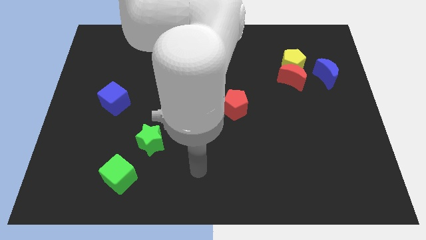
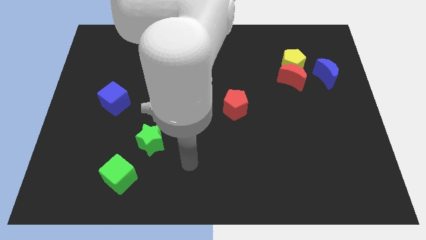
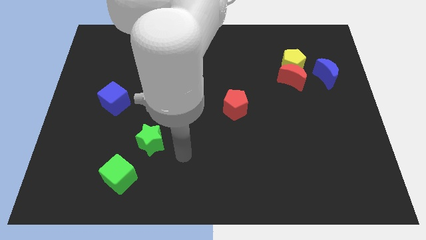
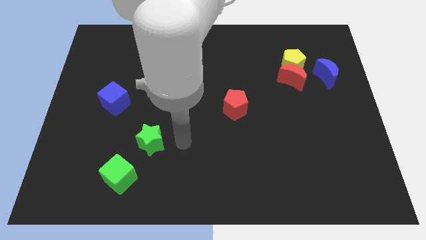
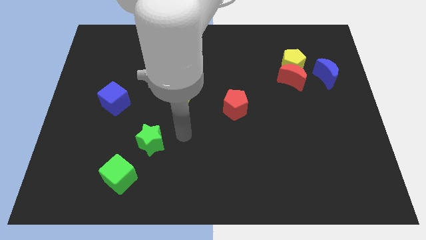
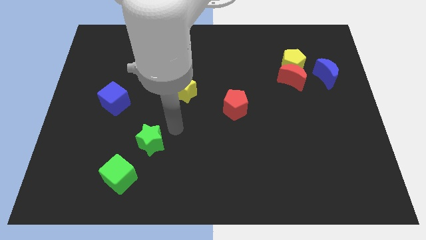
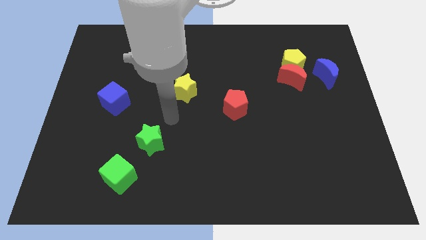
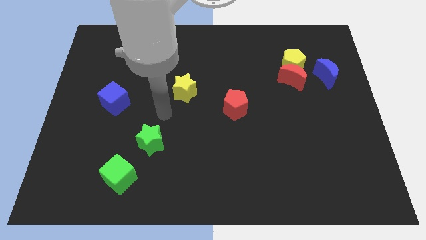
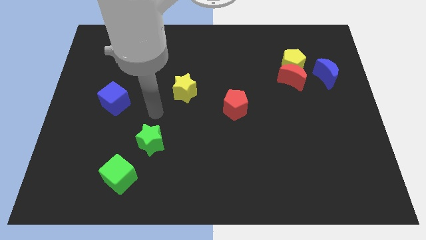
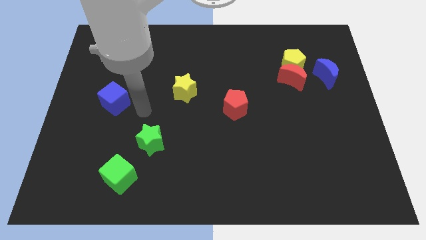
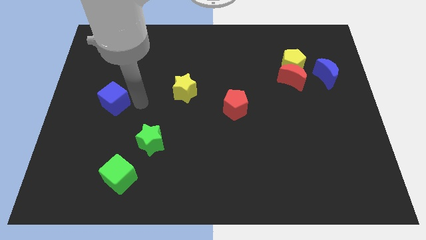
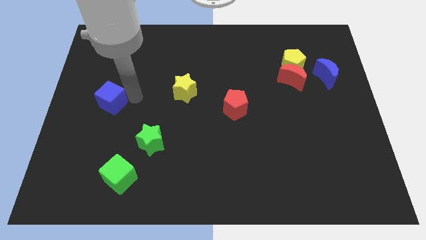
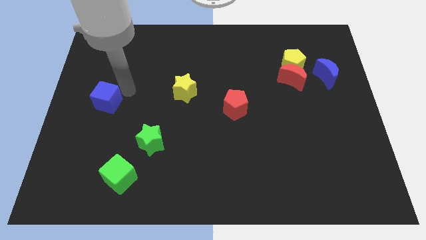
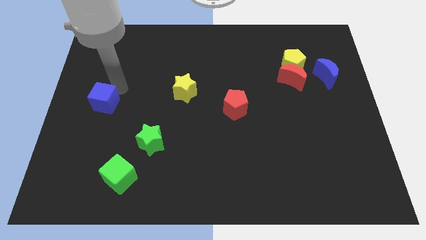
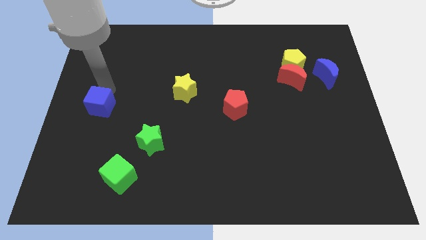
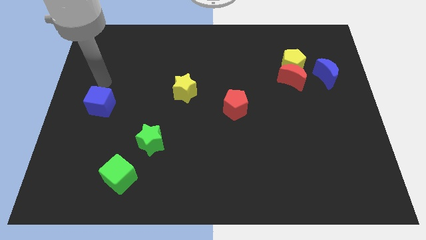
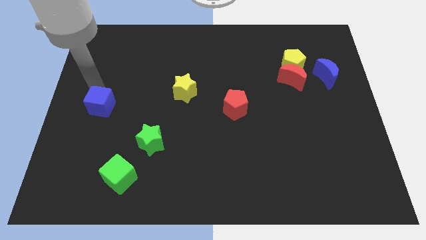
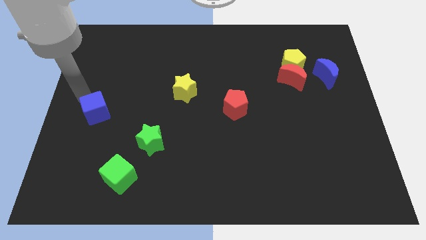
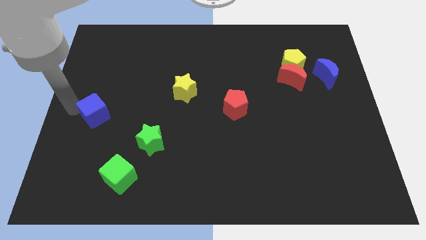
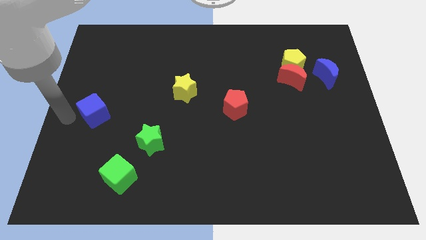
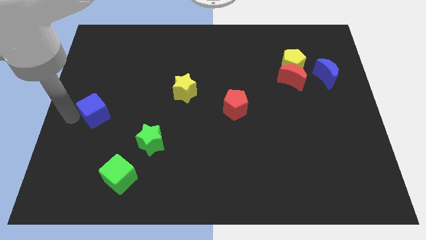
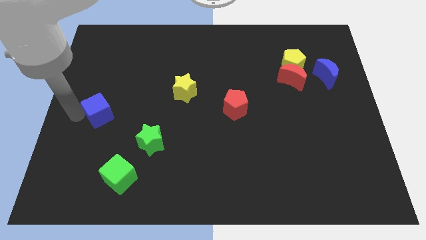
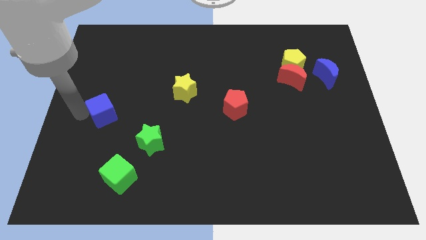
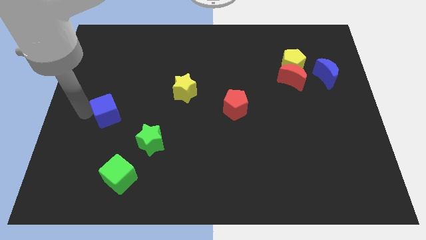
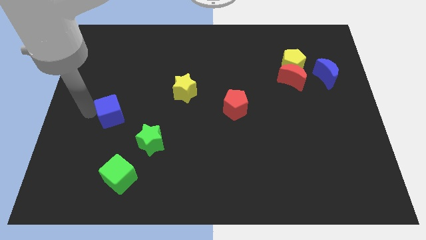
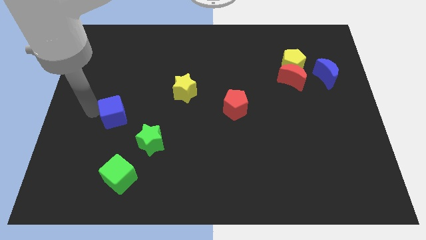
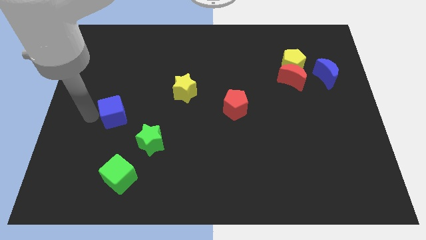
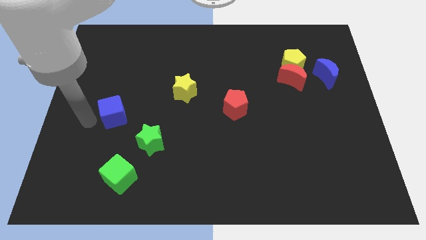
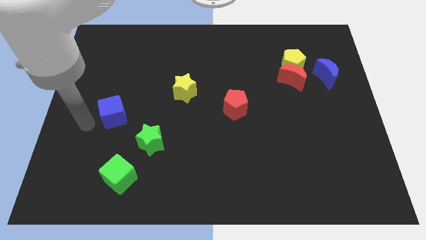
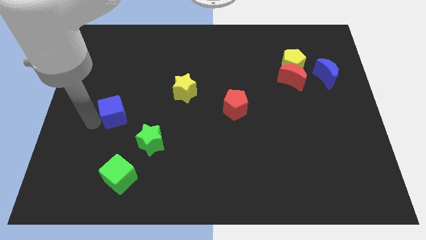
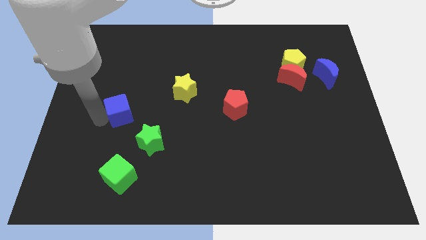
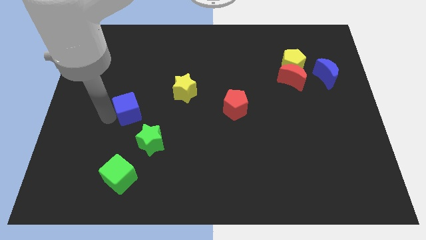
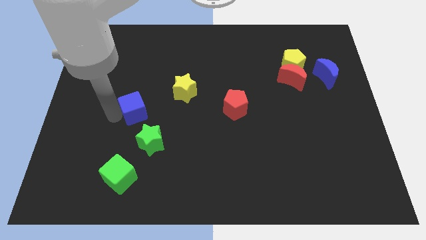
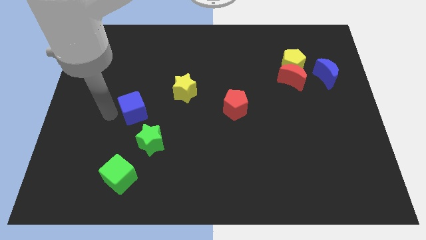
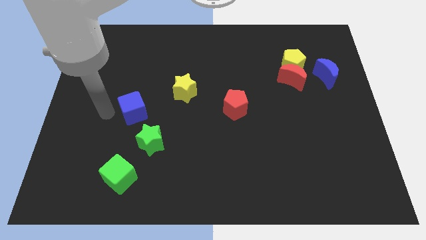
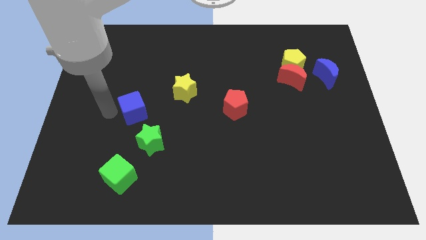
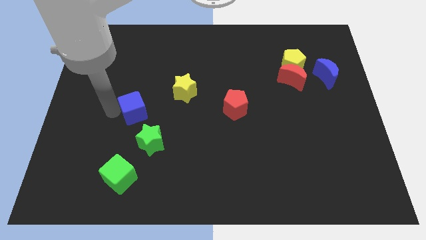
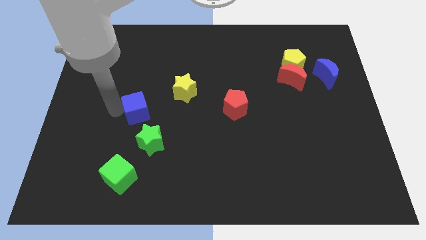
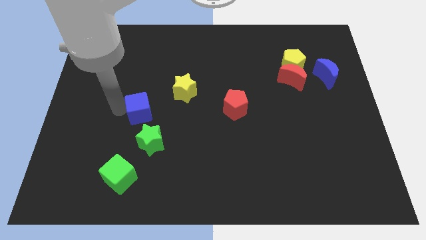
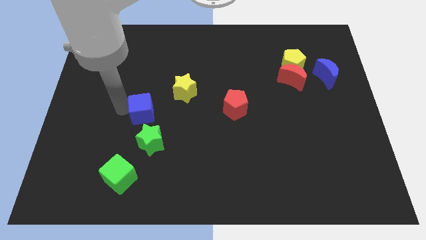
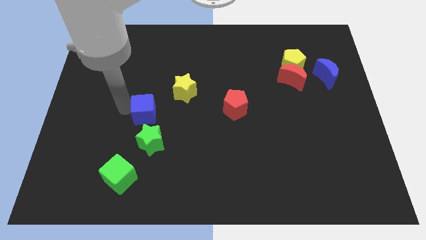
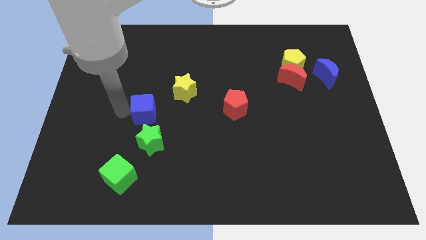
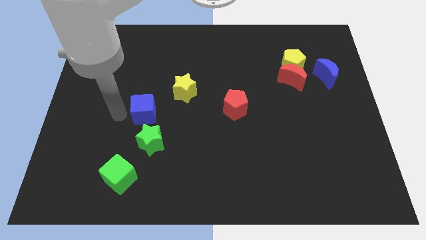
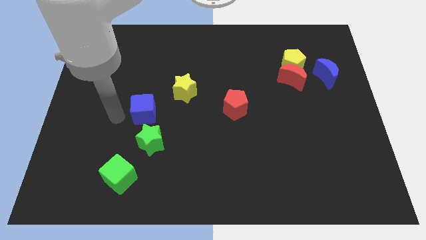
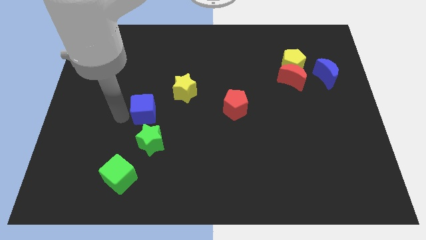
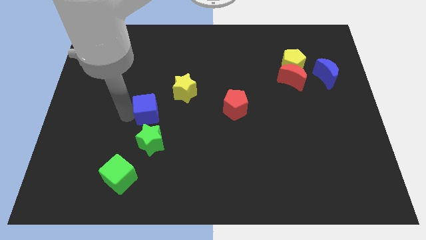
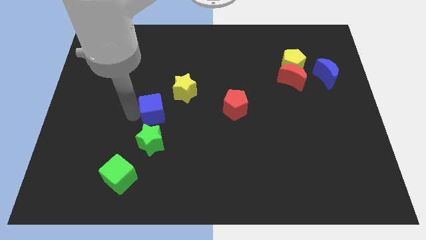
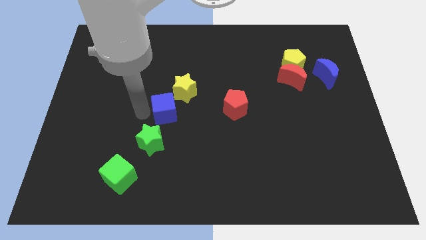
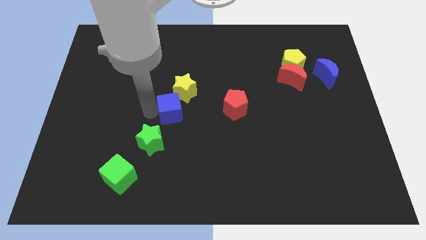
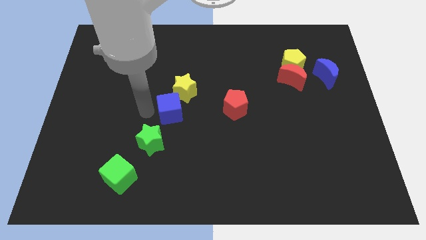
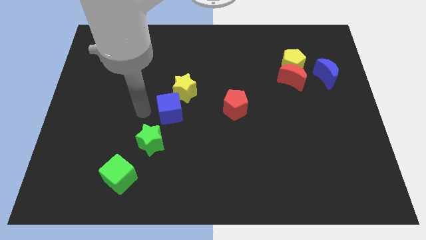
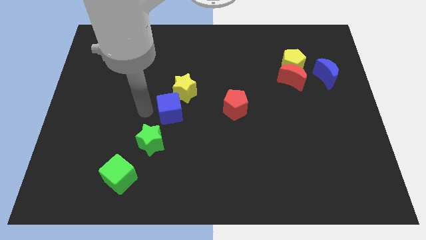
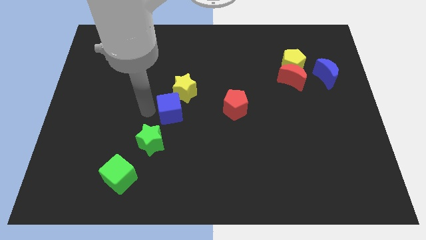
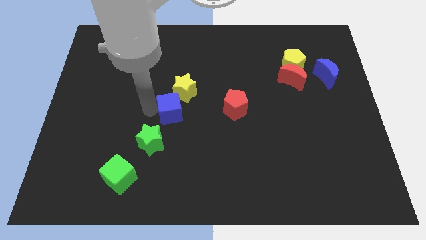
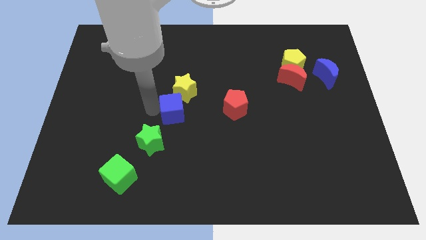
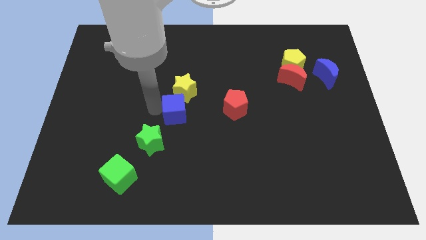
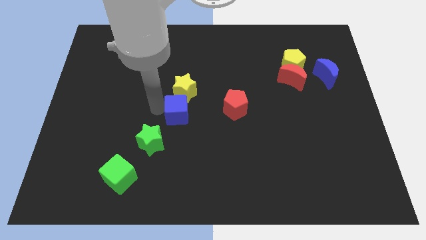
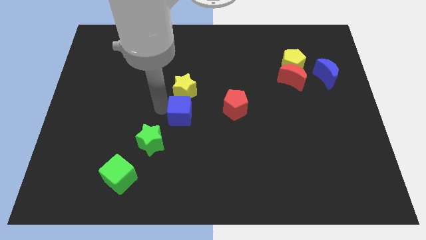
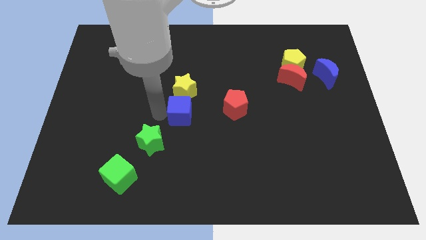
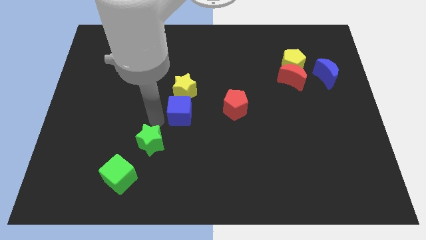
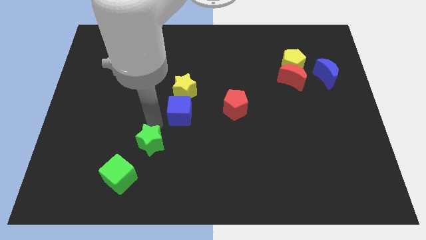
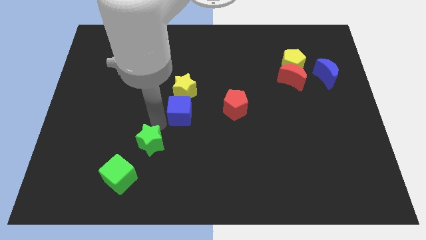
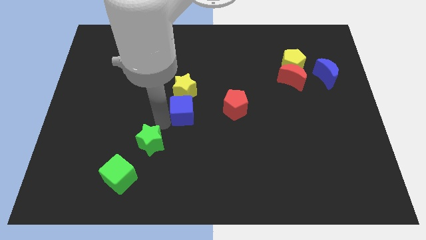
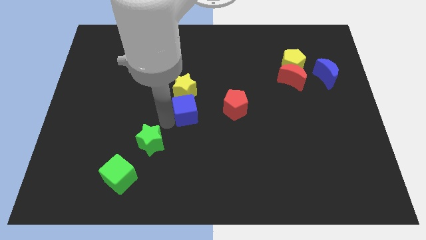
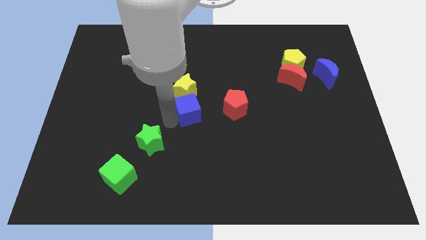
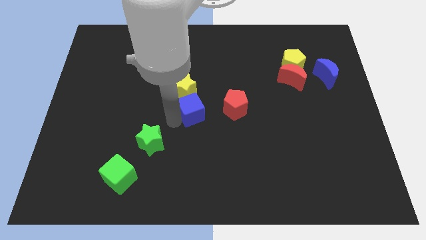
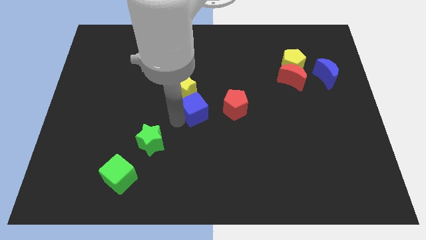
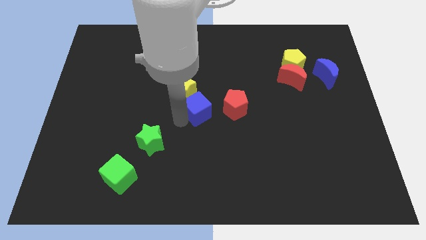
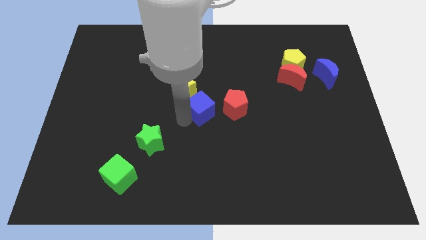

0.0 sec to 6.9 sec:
move the blue cube right

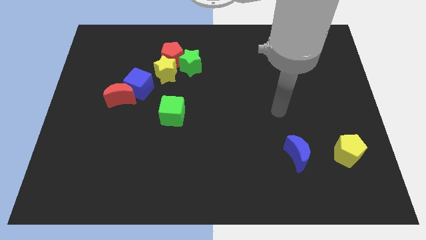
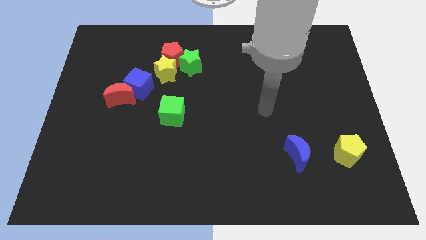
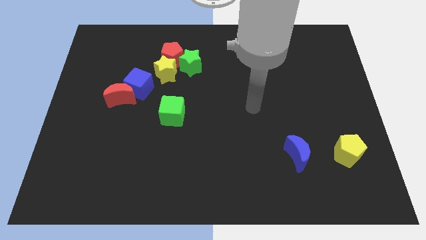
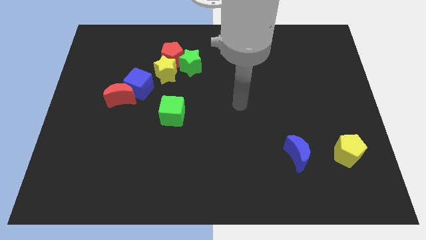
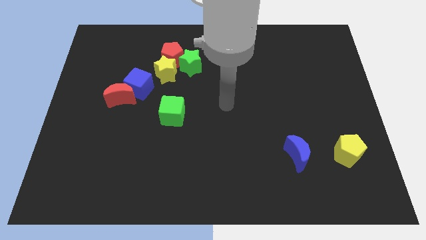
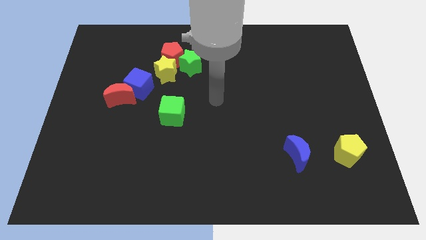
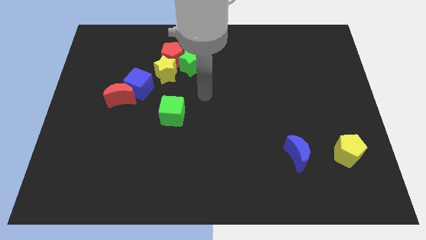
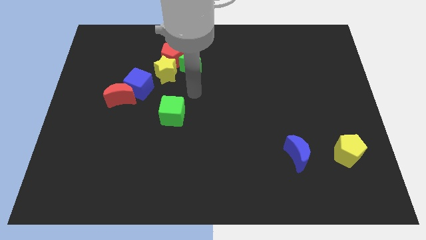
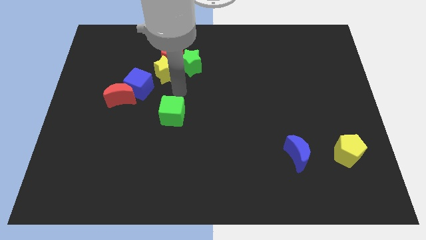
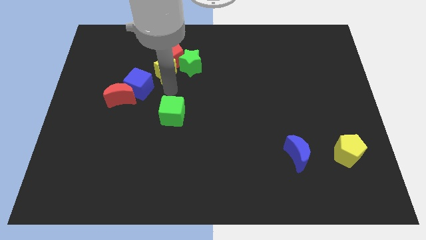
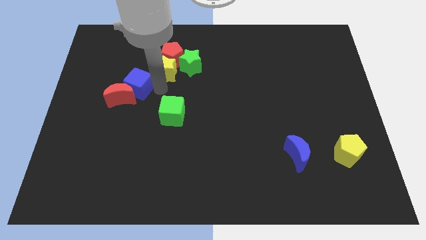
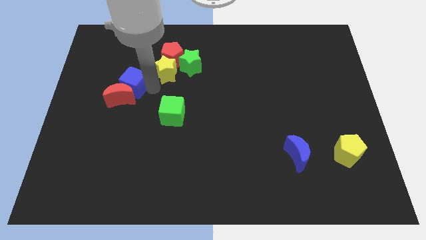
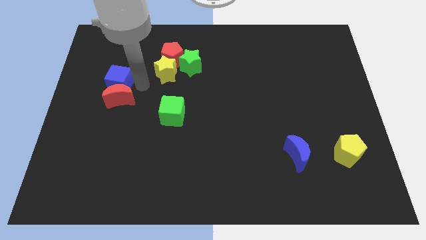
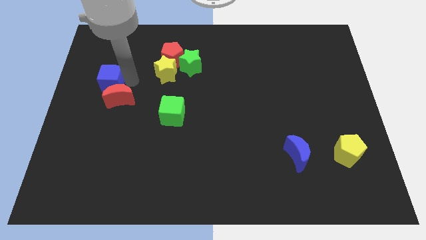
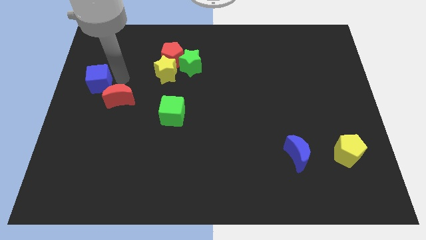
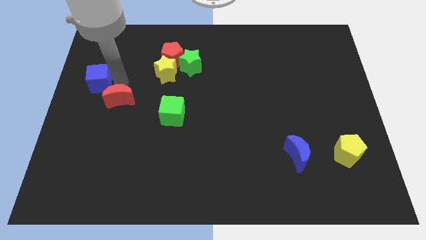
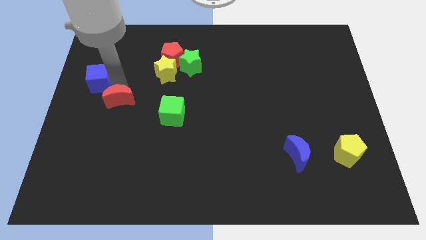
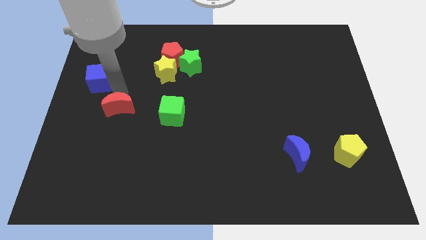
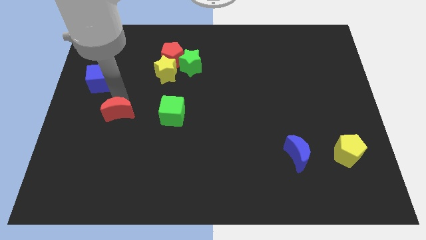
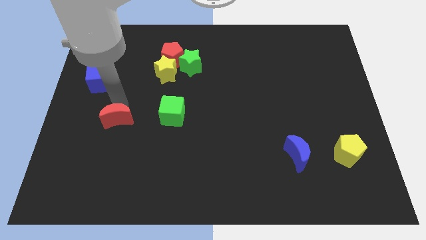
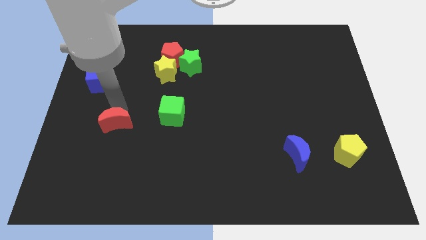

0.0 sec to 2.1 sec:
slightly slide the red moon down
